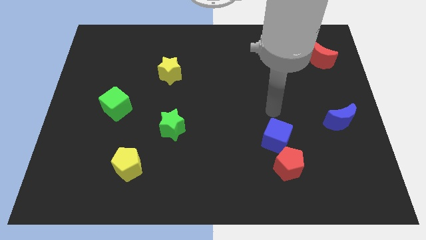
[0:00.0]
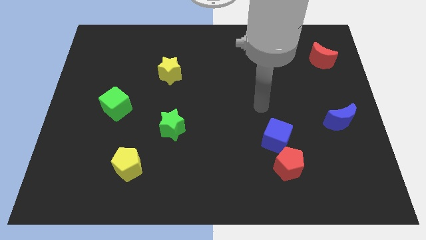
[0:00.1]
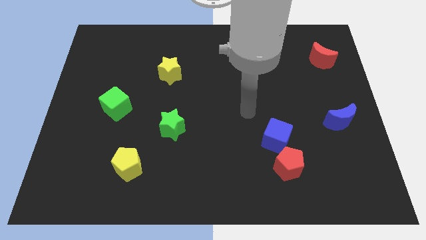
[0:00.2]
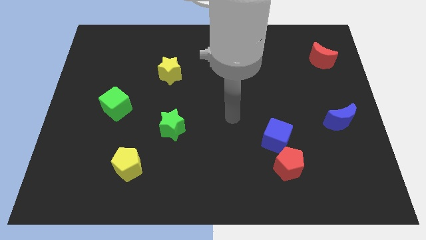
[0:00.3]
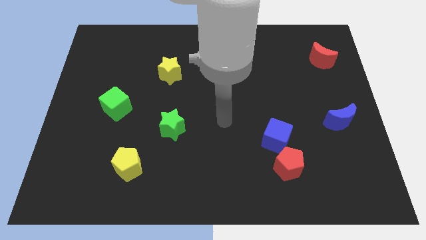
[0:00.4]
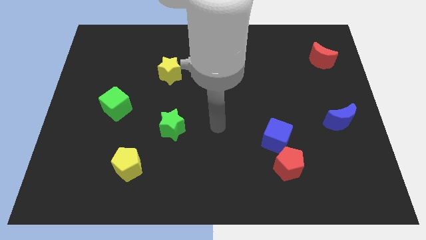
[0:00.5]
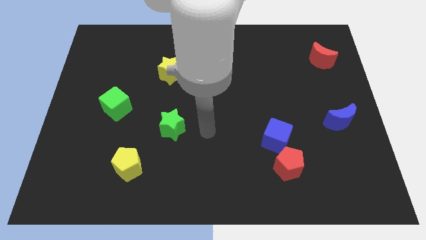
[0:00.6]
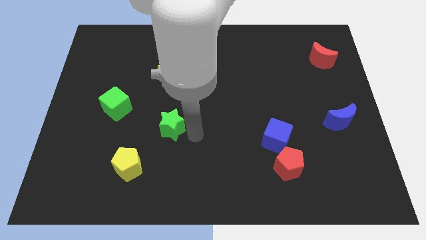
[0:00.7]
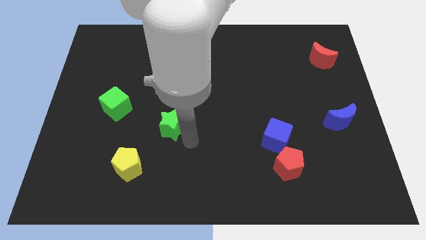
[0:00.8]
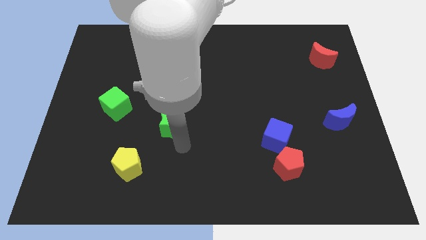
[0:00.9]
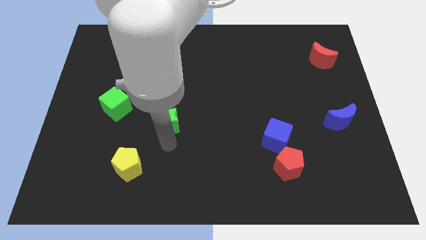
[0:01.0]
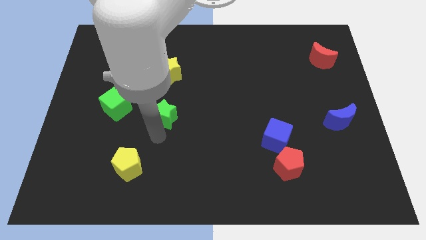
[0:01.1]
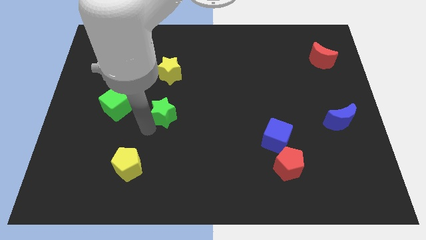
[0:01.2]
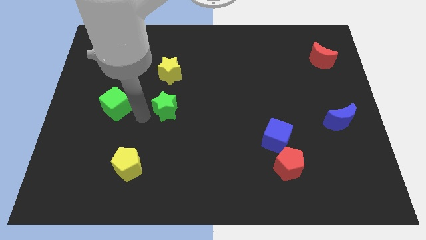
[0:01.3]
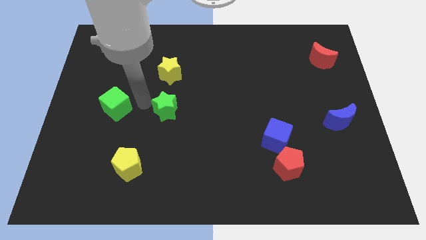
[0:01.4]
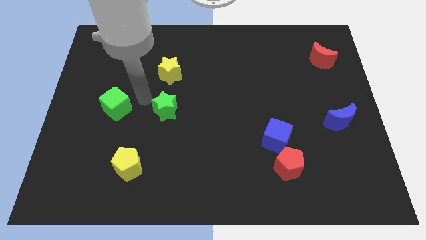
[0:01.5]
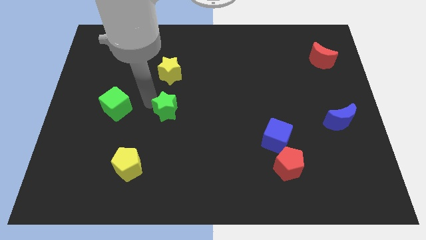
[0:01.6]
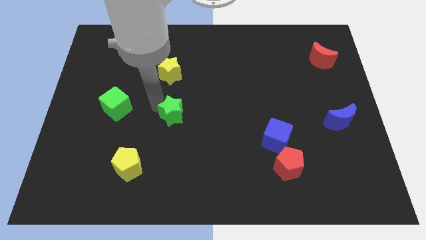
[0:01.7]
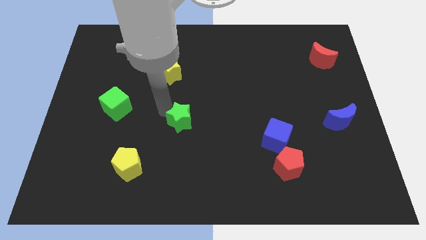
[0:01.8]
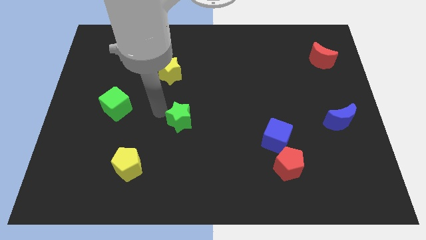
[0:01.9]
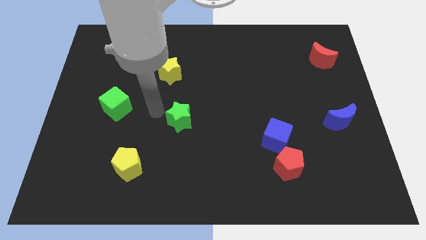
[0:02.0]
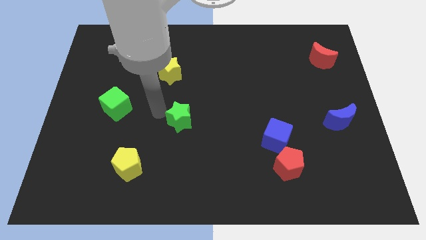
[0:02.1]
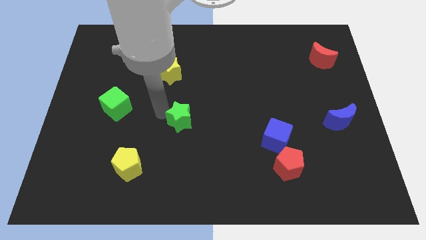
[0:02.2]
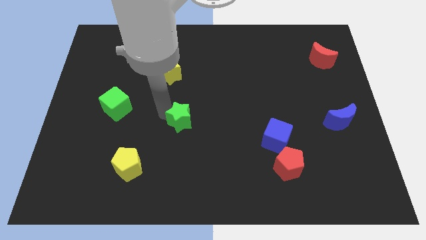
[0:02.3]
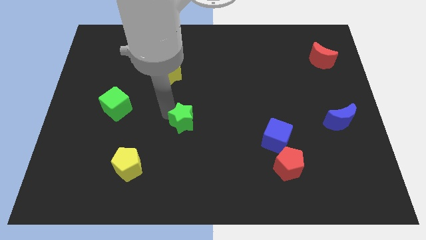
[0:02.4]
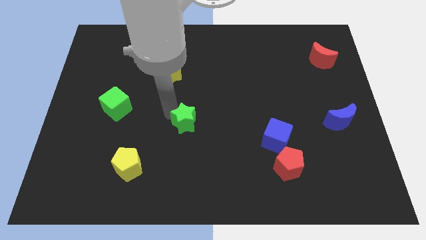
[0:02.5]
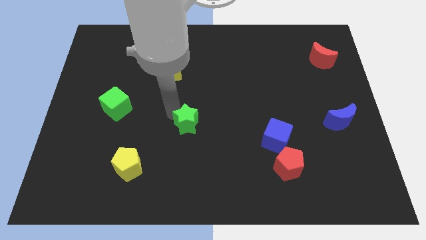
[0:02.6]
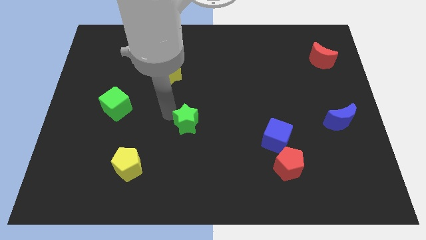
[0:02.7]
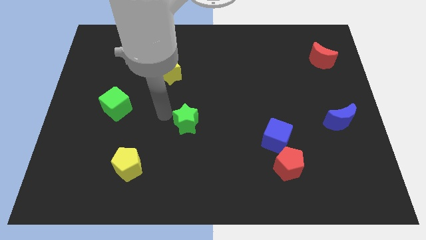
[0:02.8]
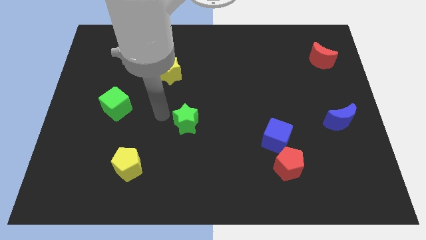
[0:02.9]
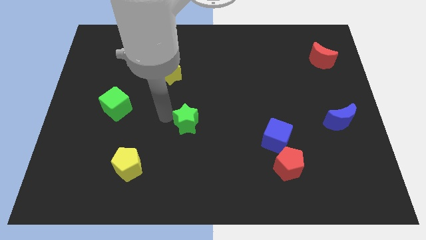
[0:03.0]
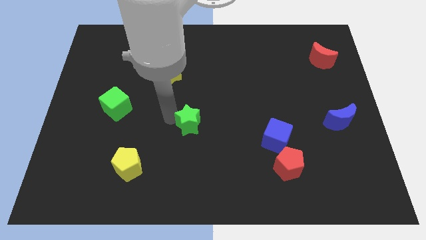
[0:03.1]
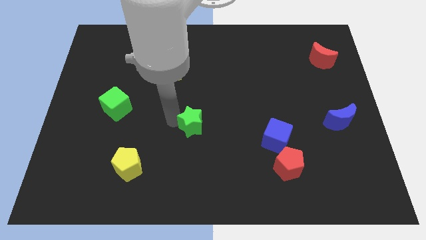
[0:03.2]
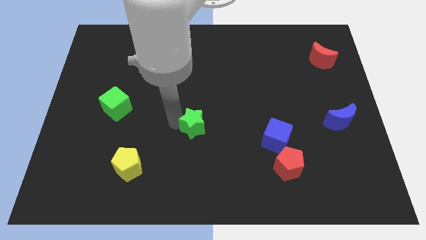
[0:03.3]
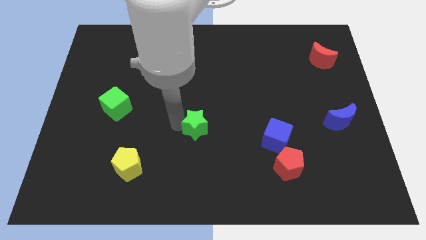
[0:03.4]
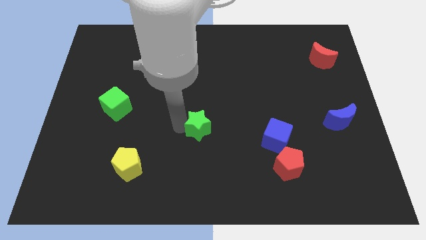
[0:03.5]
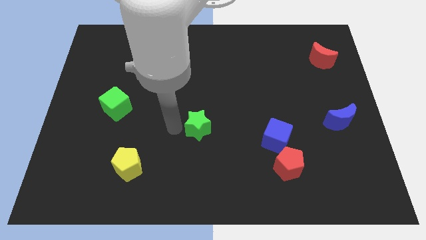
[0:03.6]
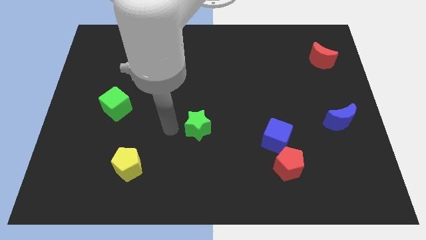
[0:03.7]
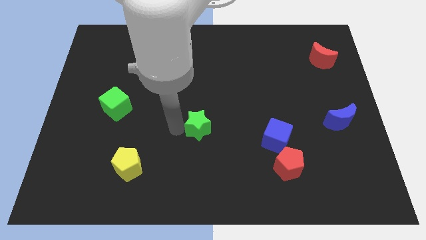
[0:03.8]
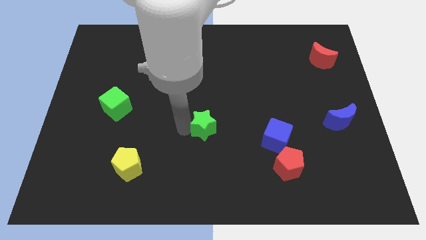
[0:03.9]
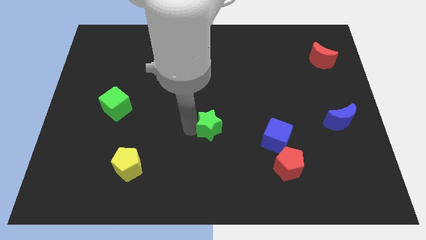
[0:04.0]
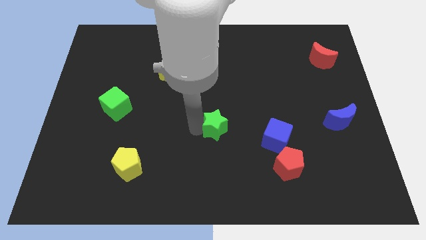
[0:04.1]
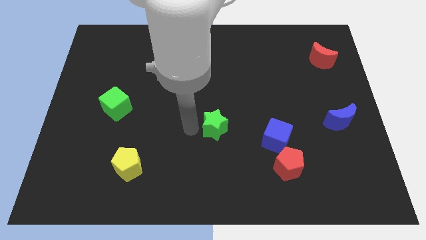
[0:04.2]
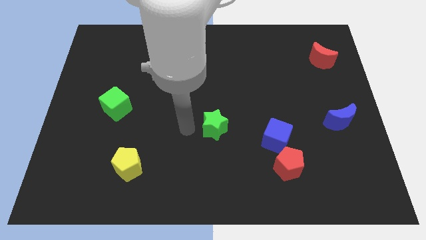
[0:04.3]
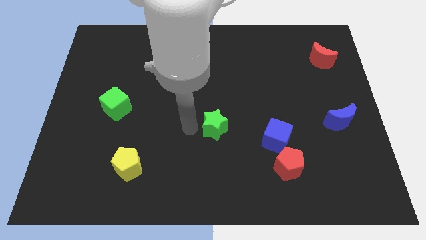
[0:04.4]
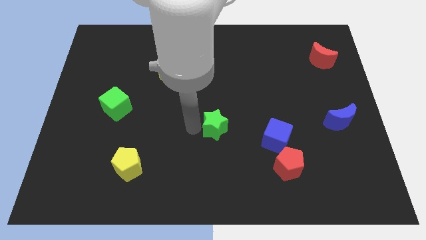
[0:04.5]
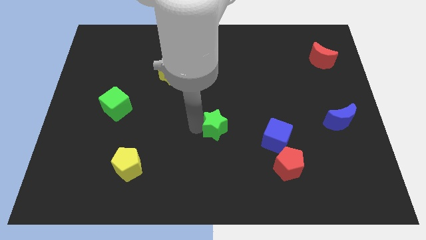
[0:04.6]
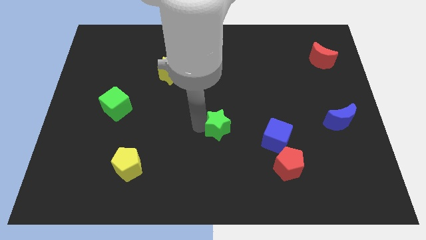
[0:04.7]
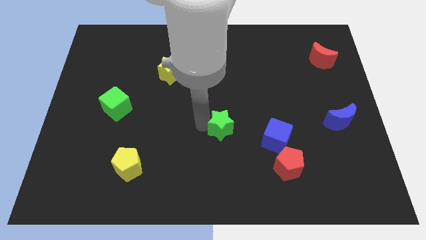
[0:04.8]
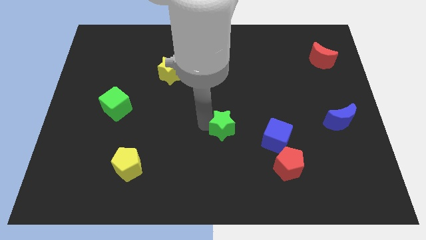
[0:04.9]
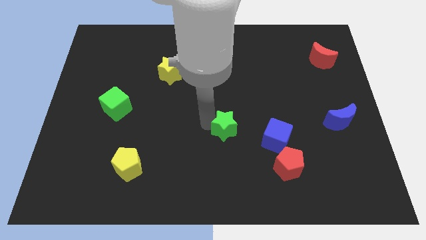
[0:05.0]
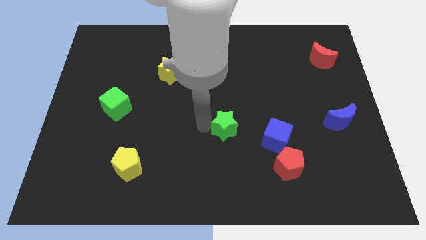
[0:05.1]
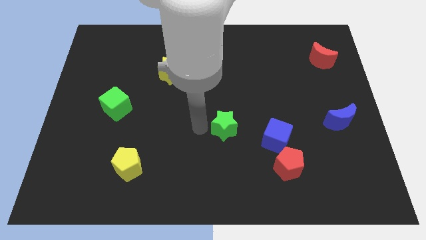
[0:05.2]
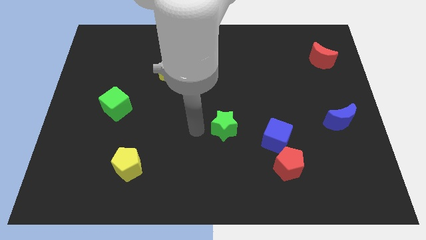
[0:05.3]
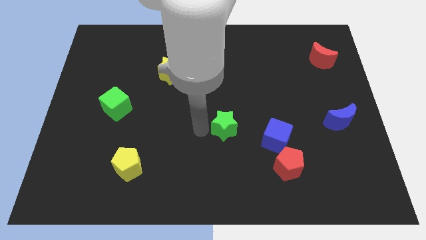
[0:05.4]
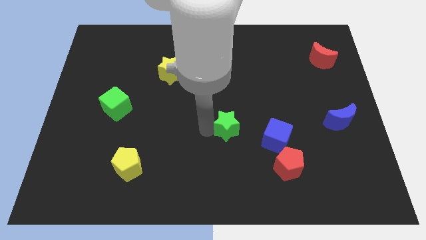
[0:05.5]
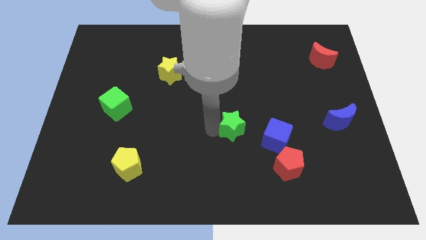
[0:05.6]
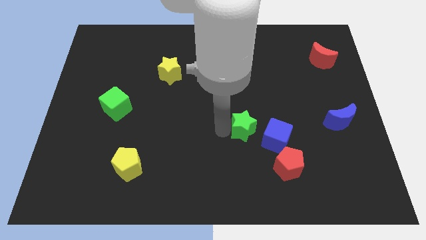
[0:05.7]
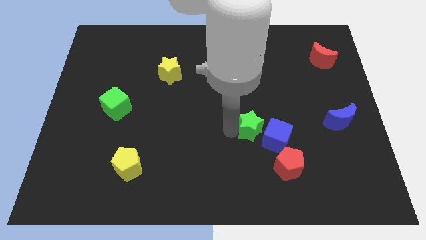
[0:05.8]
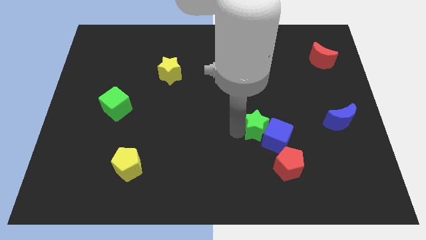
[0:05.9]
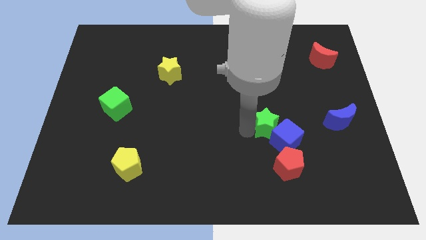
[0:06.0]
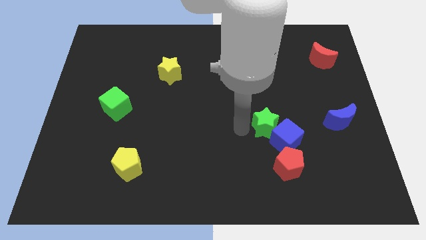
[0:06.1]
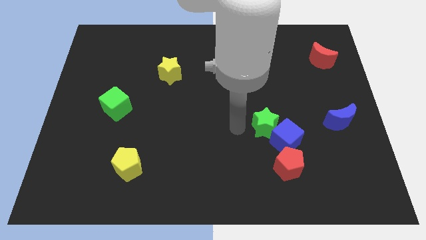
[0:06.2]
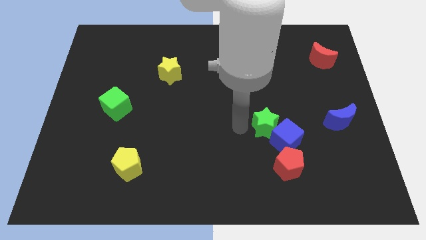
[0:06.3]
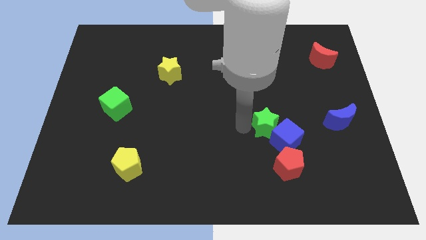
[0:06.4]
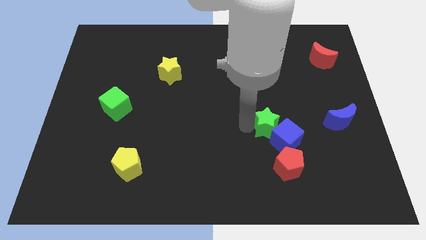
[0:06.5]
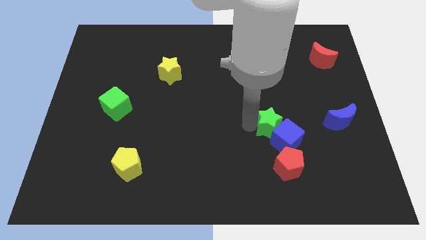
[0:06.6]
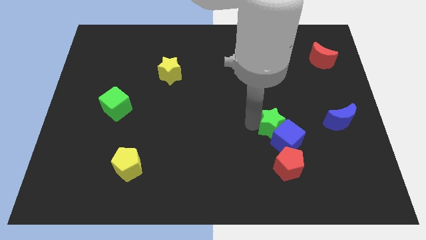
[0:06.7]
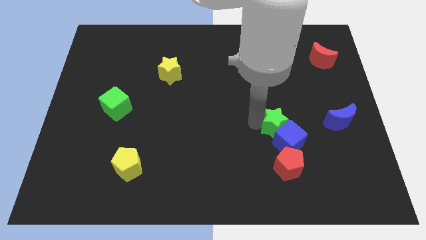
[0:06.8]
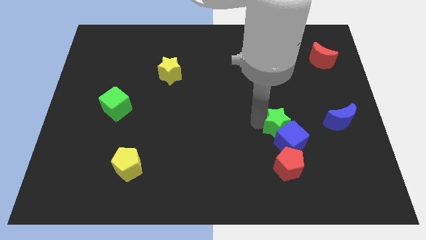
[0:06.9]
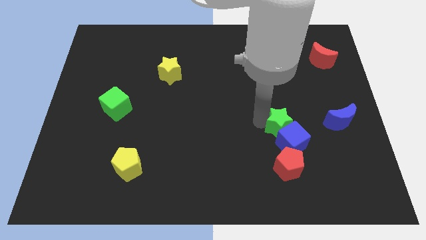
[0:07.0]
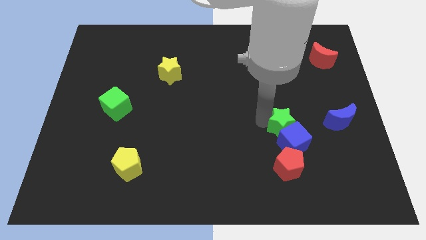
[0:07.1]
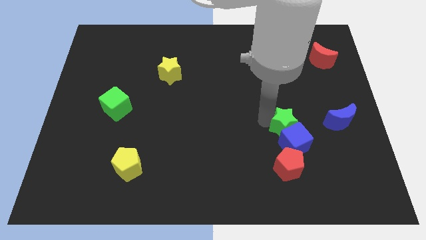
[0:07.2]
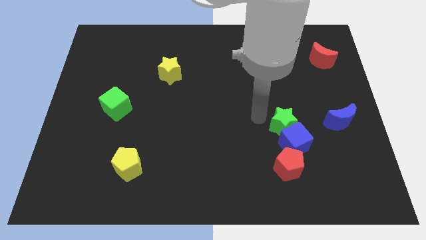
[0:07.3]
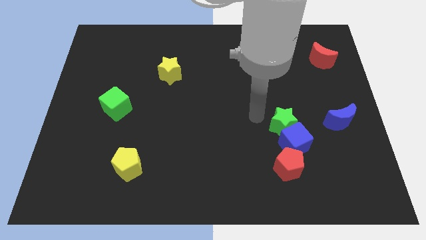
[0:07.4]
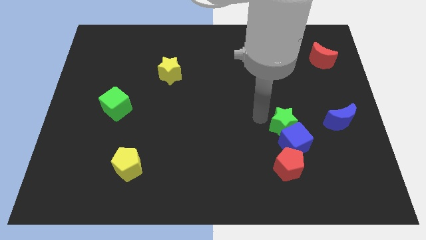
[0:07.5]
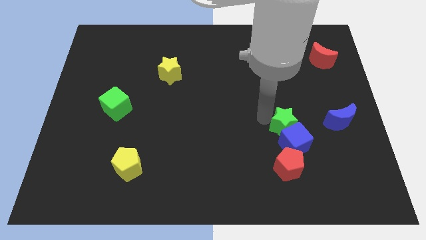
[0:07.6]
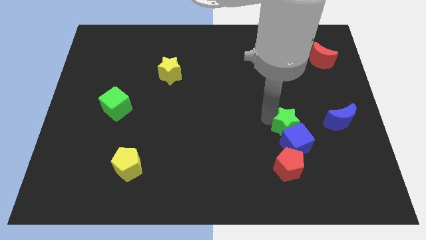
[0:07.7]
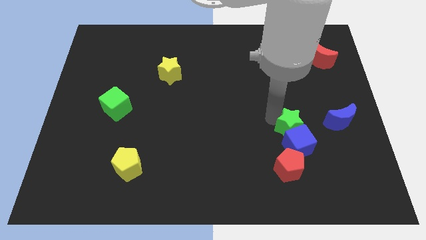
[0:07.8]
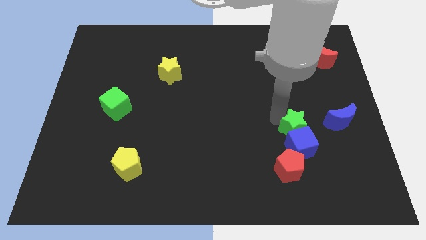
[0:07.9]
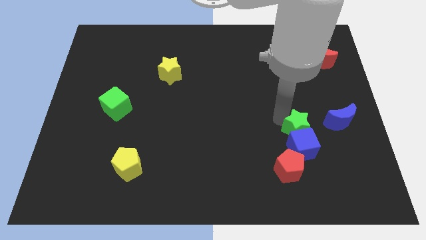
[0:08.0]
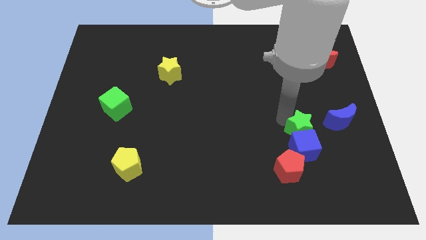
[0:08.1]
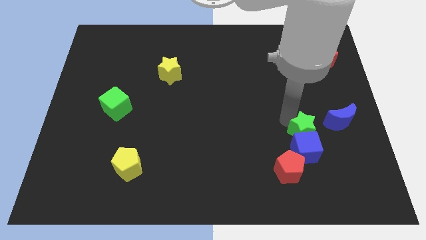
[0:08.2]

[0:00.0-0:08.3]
move the green star to the bottom left of the blue moon
